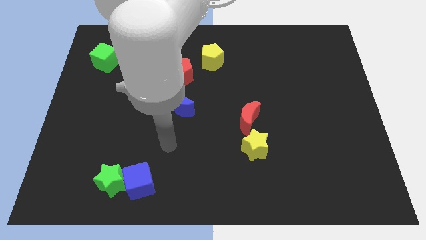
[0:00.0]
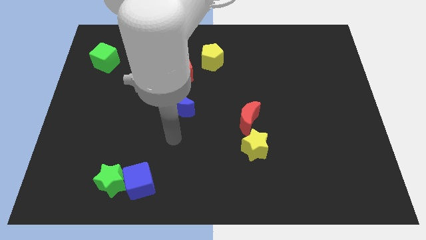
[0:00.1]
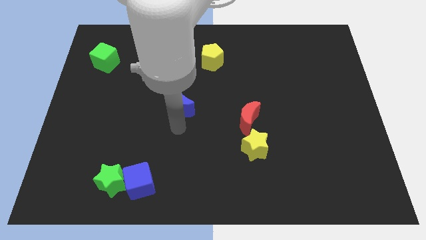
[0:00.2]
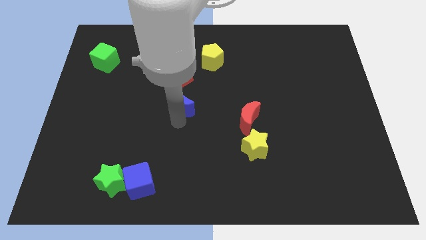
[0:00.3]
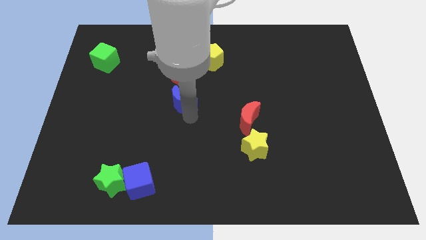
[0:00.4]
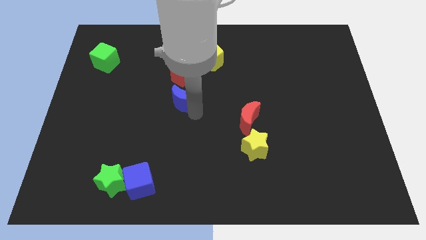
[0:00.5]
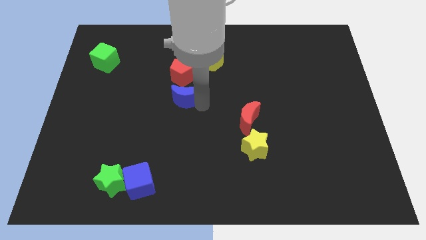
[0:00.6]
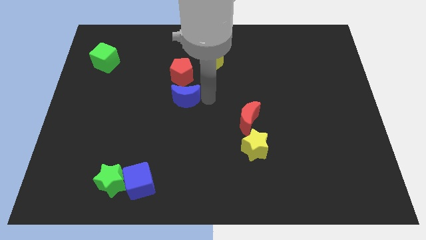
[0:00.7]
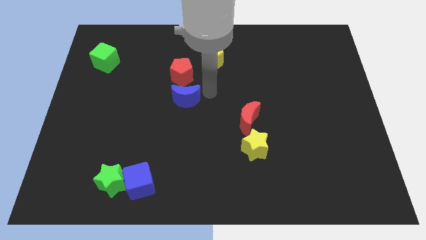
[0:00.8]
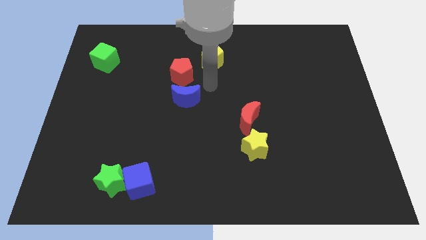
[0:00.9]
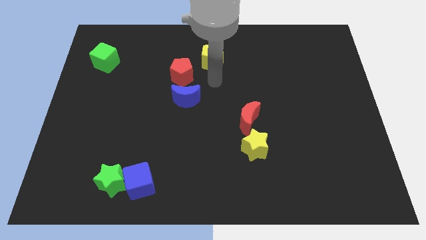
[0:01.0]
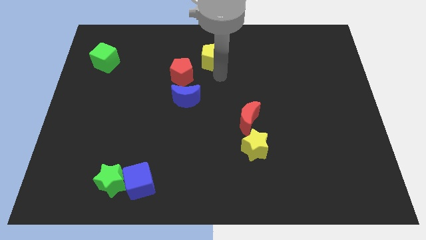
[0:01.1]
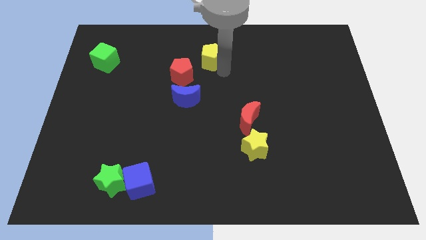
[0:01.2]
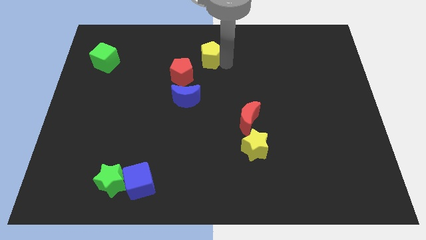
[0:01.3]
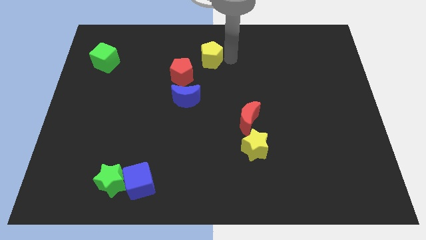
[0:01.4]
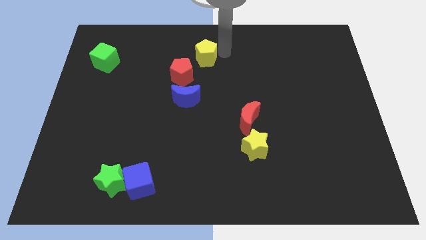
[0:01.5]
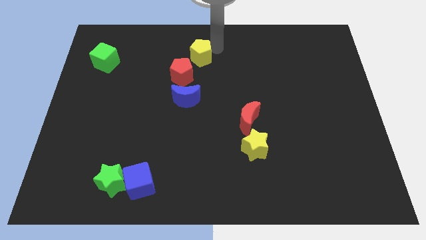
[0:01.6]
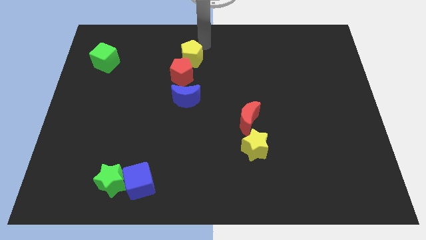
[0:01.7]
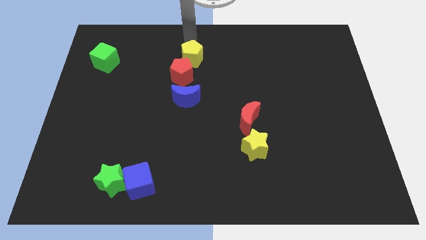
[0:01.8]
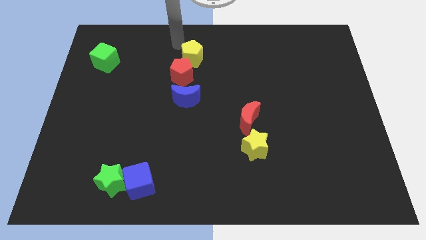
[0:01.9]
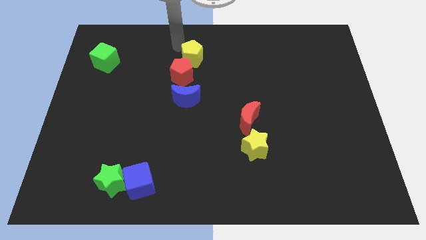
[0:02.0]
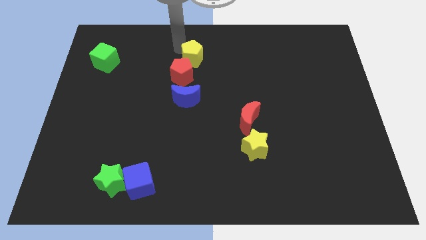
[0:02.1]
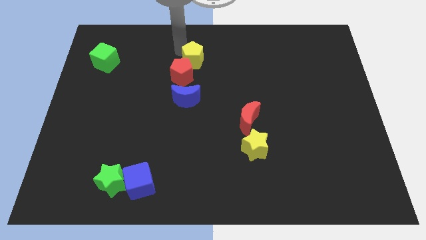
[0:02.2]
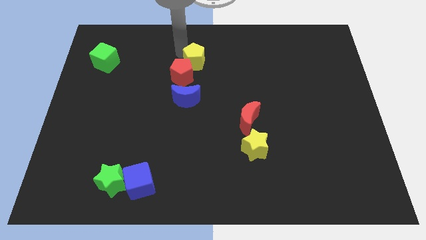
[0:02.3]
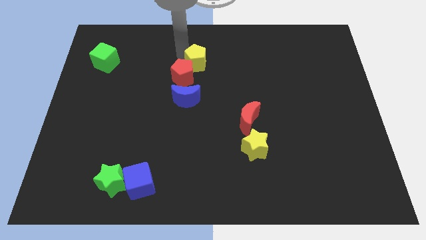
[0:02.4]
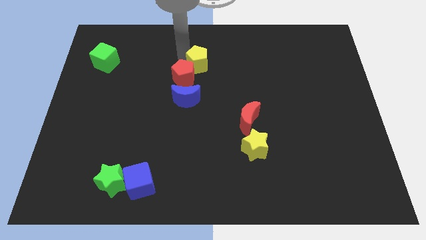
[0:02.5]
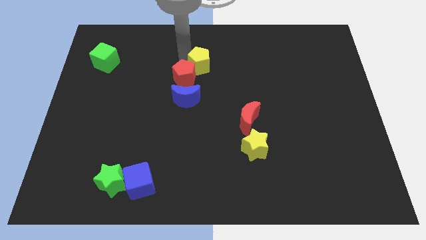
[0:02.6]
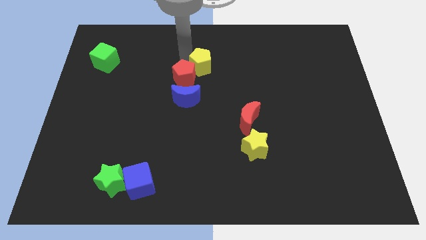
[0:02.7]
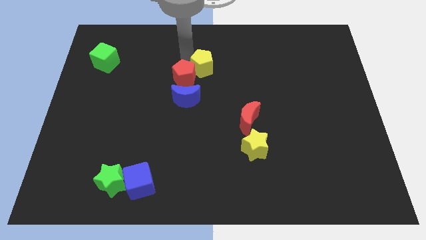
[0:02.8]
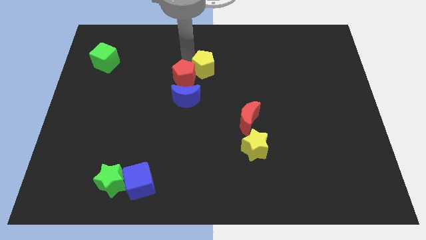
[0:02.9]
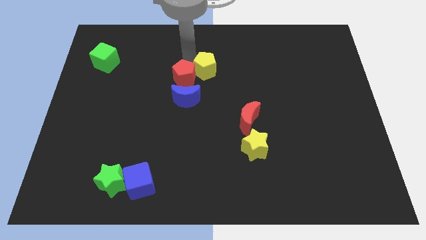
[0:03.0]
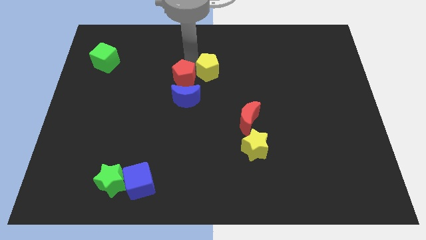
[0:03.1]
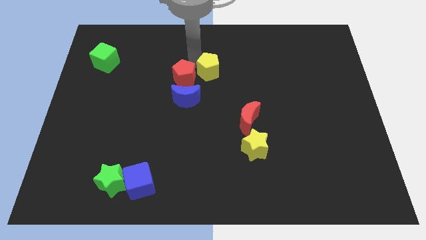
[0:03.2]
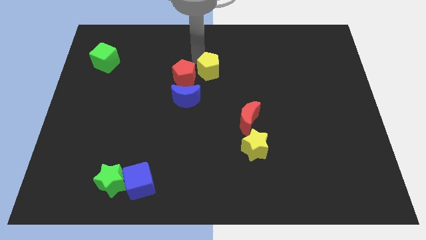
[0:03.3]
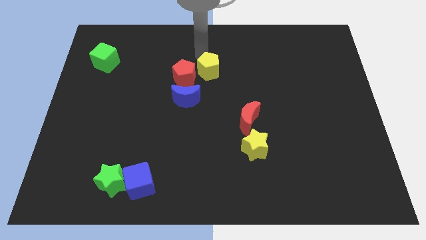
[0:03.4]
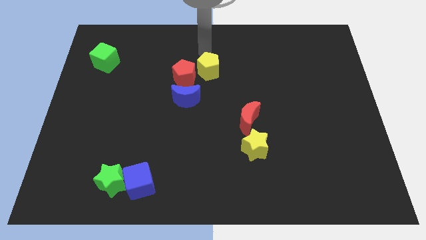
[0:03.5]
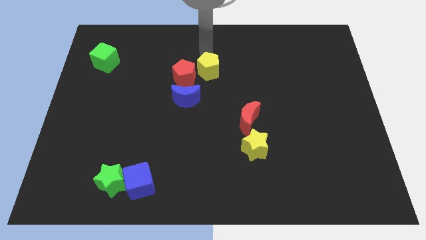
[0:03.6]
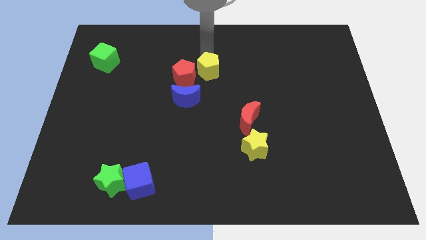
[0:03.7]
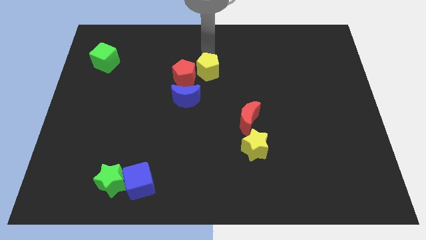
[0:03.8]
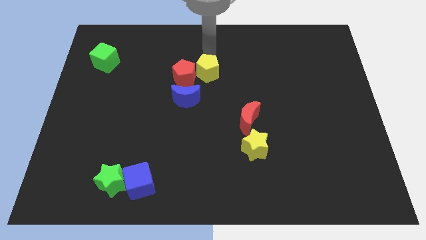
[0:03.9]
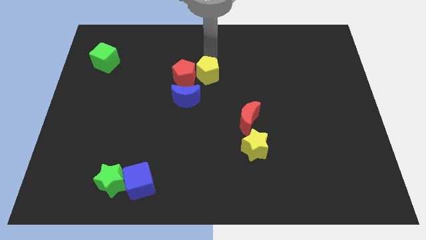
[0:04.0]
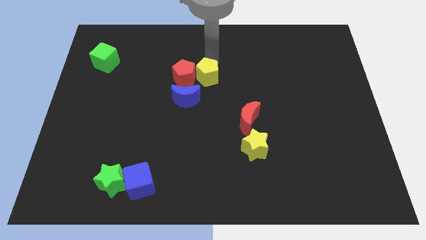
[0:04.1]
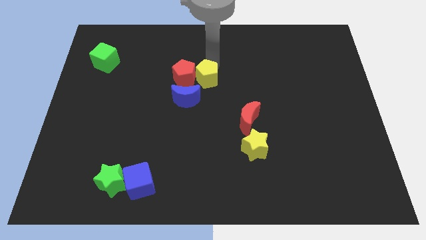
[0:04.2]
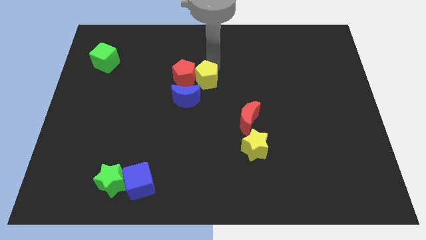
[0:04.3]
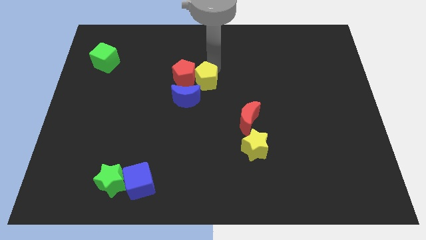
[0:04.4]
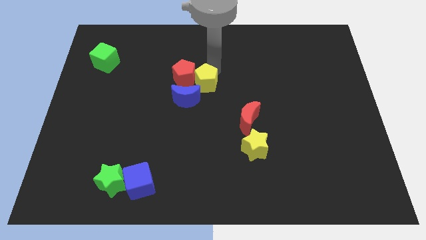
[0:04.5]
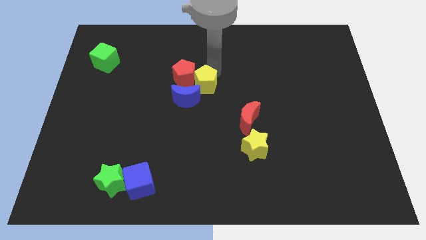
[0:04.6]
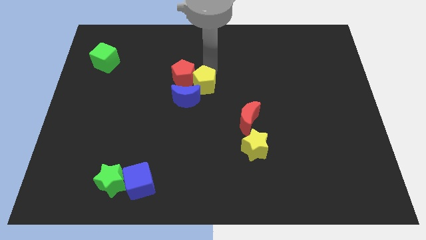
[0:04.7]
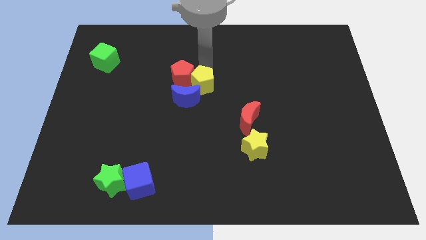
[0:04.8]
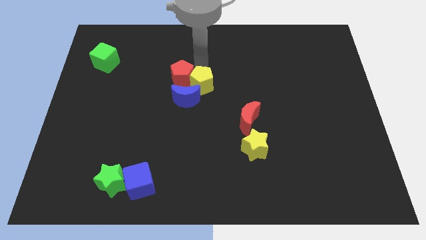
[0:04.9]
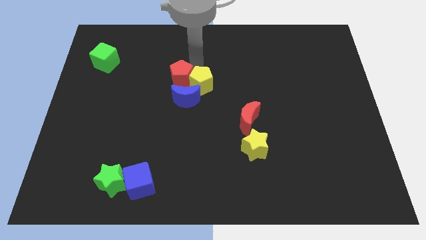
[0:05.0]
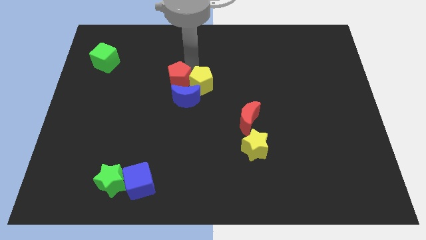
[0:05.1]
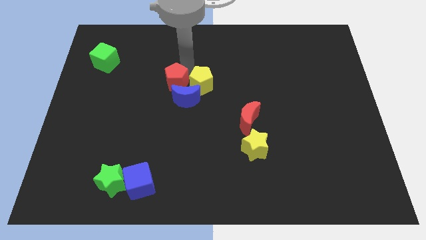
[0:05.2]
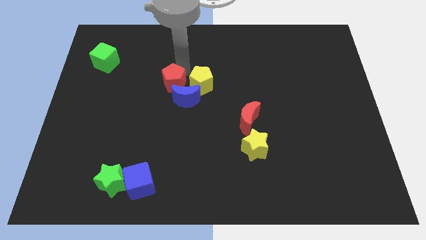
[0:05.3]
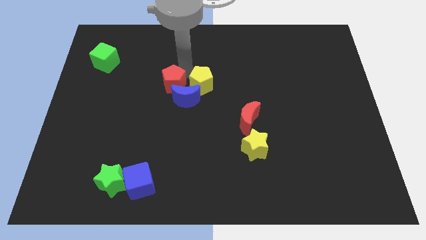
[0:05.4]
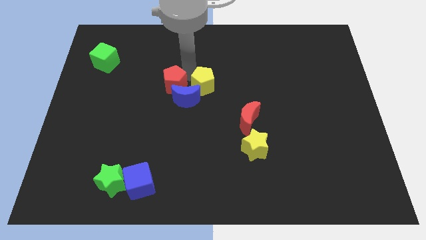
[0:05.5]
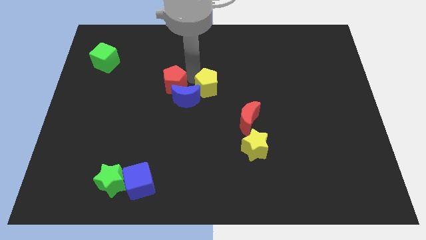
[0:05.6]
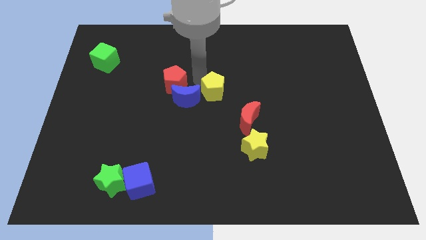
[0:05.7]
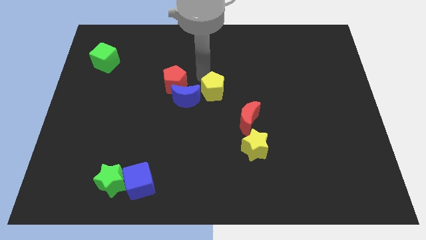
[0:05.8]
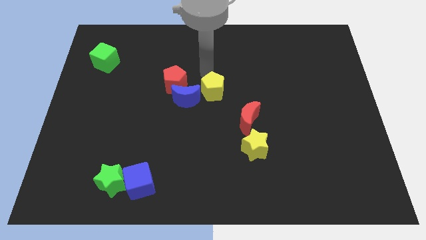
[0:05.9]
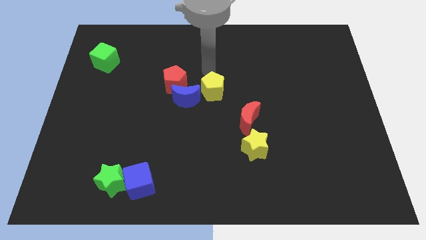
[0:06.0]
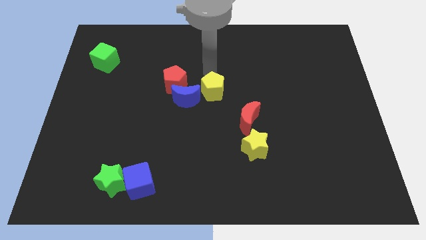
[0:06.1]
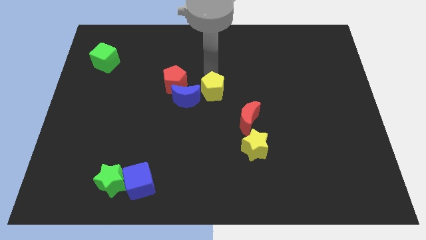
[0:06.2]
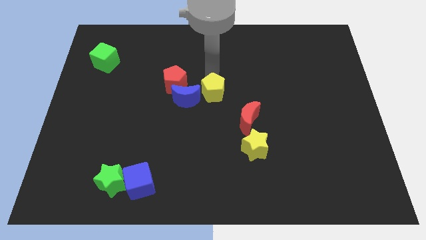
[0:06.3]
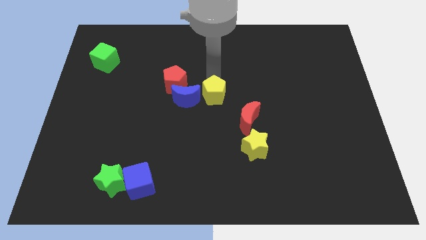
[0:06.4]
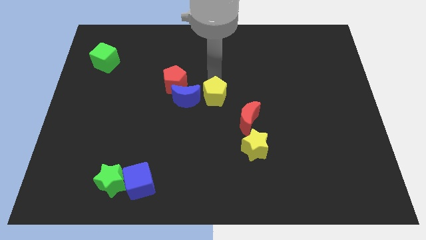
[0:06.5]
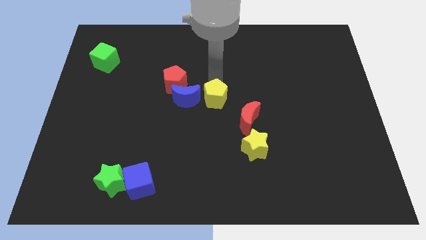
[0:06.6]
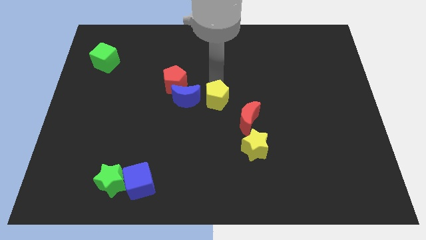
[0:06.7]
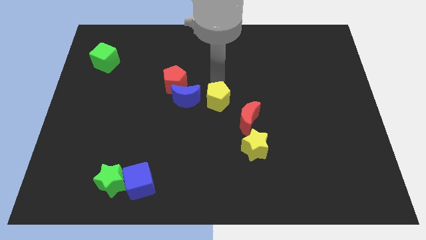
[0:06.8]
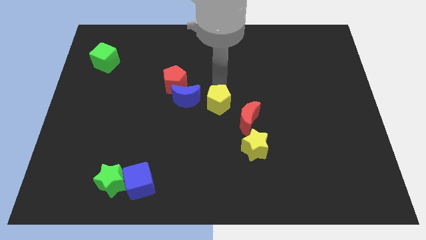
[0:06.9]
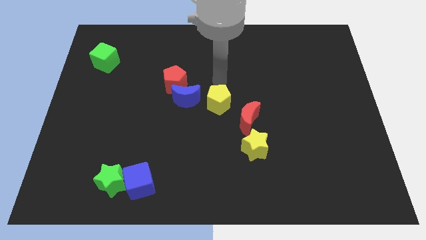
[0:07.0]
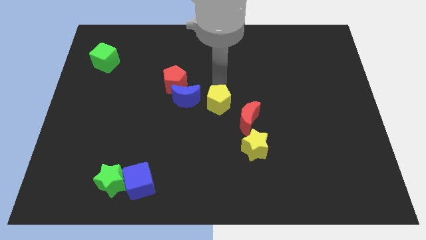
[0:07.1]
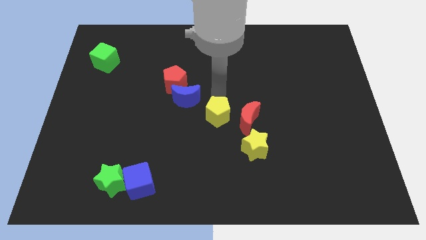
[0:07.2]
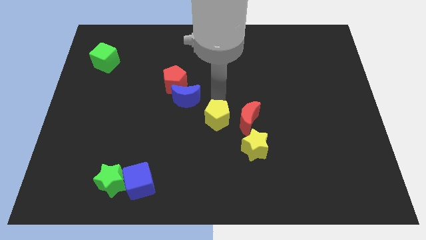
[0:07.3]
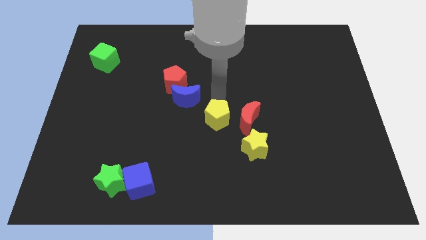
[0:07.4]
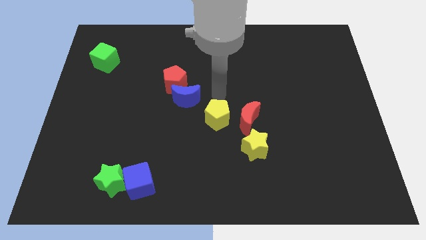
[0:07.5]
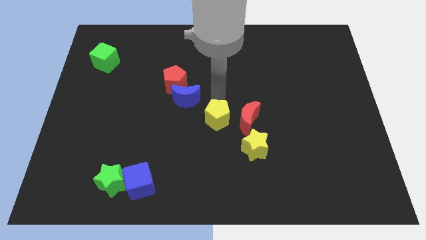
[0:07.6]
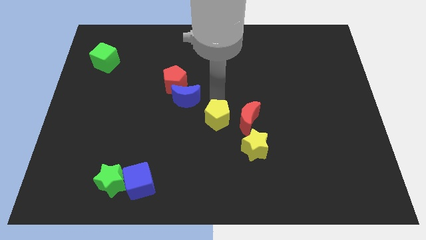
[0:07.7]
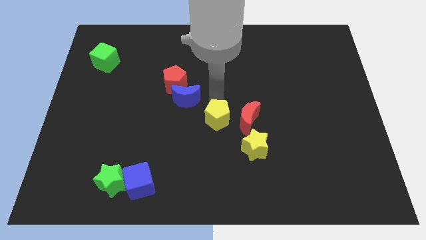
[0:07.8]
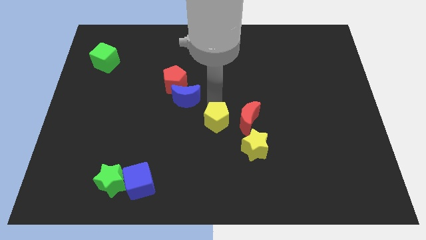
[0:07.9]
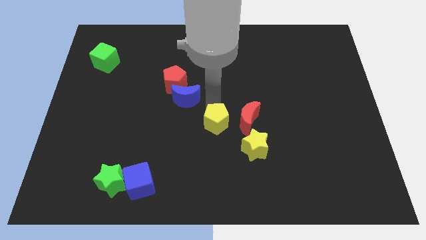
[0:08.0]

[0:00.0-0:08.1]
move the yellow pentagon down

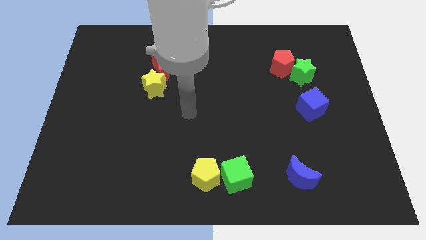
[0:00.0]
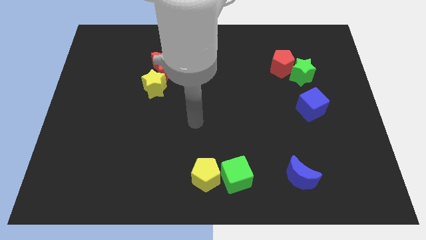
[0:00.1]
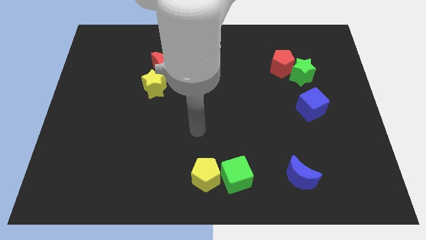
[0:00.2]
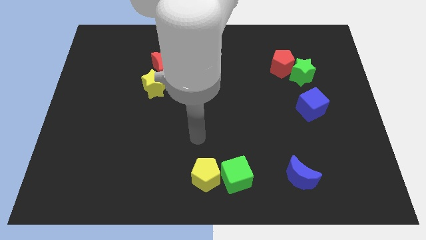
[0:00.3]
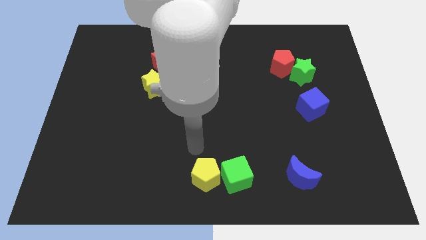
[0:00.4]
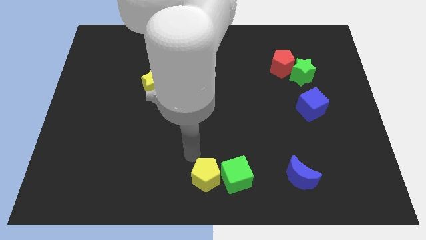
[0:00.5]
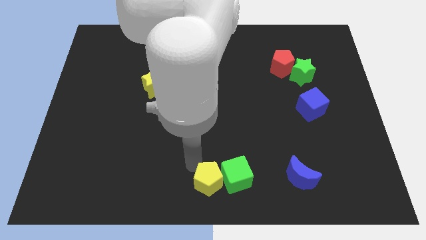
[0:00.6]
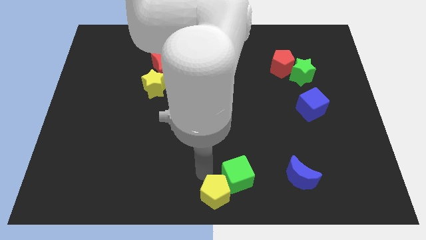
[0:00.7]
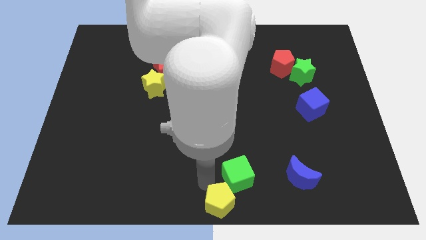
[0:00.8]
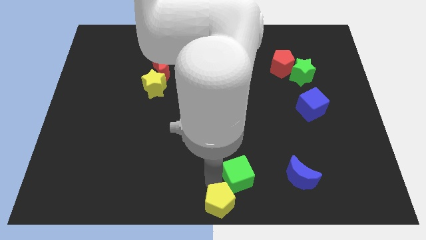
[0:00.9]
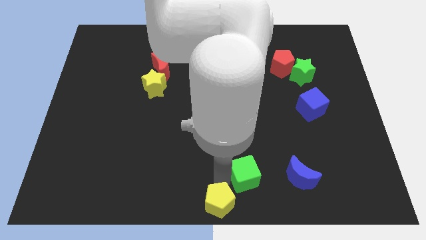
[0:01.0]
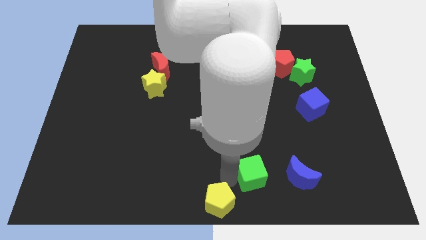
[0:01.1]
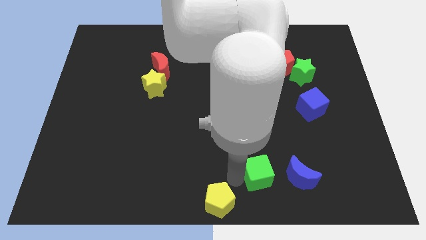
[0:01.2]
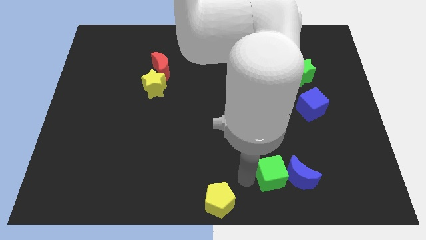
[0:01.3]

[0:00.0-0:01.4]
push the green cube slightly to the right
